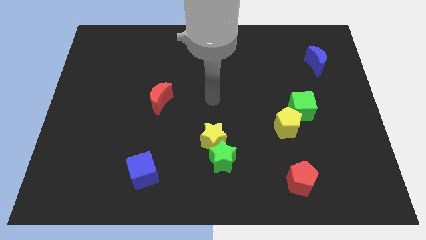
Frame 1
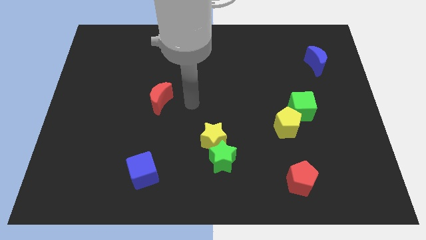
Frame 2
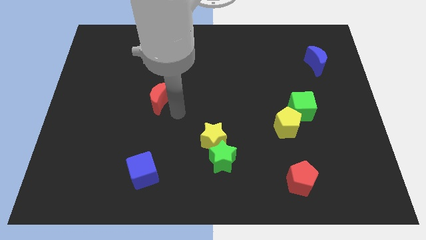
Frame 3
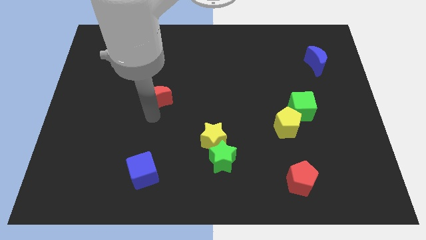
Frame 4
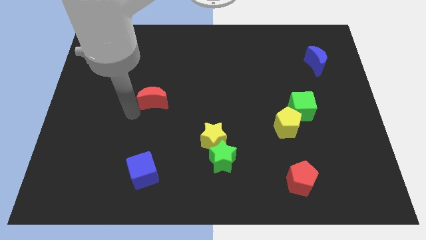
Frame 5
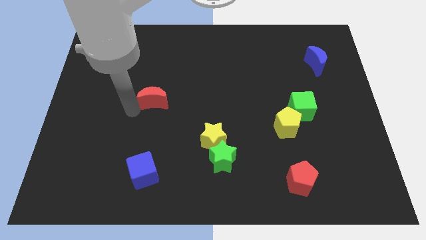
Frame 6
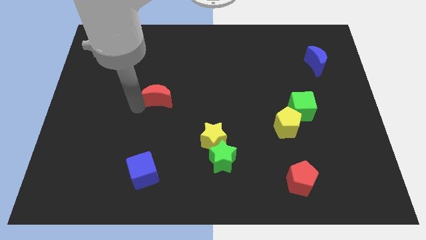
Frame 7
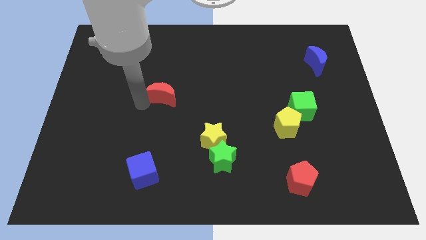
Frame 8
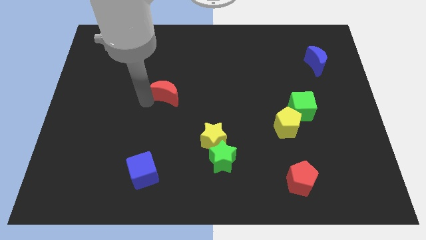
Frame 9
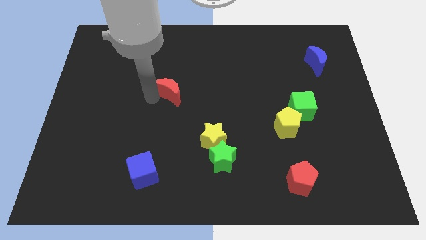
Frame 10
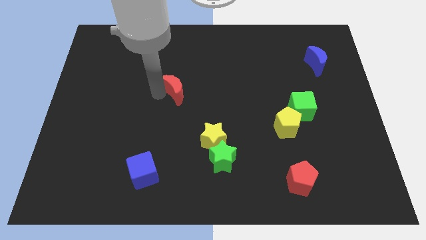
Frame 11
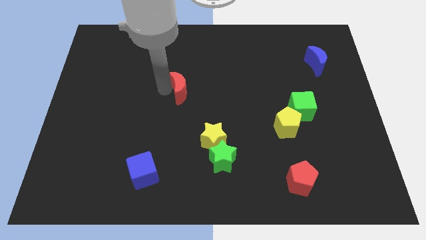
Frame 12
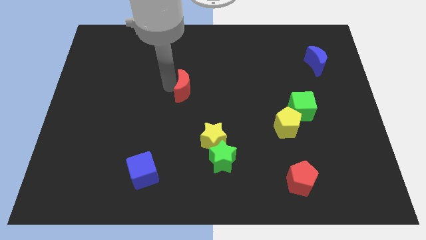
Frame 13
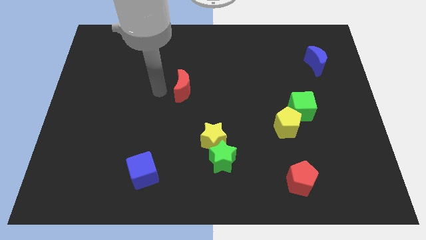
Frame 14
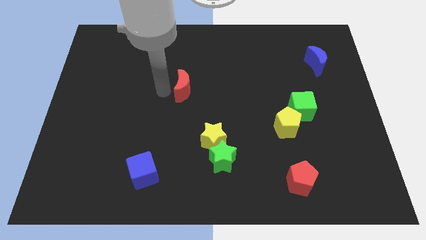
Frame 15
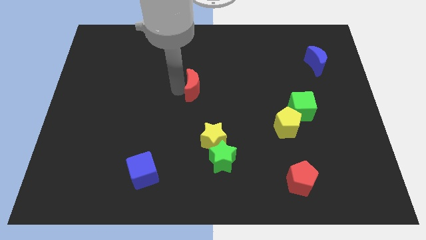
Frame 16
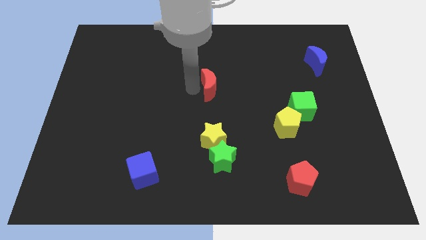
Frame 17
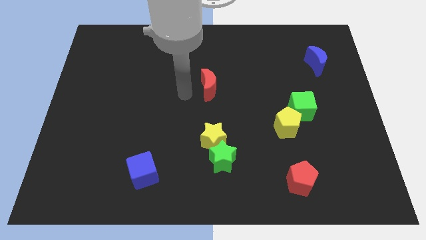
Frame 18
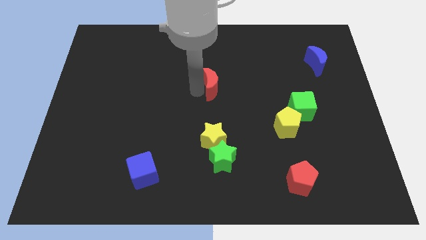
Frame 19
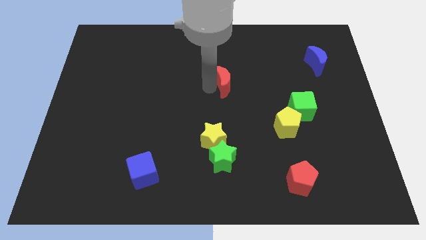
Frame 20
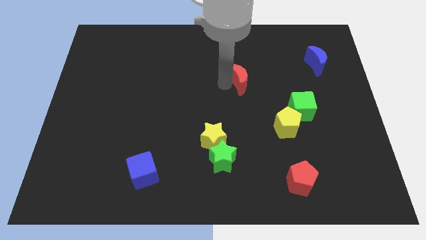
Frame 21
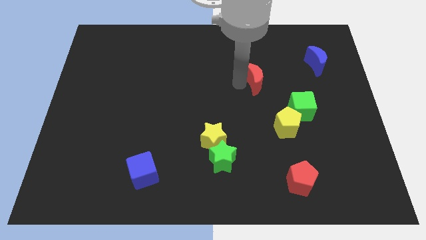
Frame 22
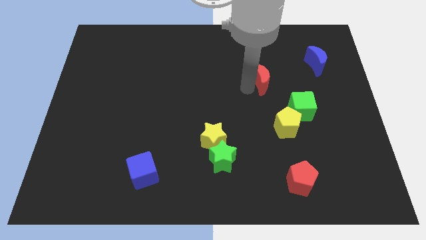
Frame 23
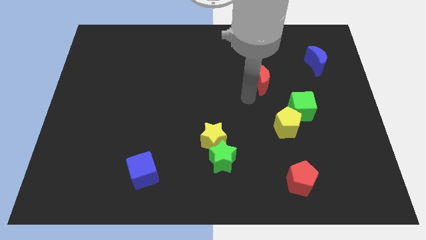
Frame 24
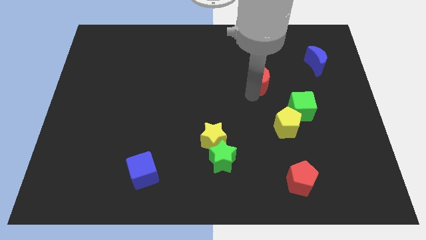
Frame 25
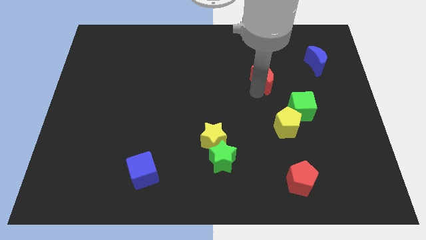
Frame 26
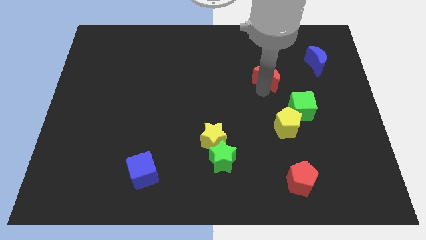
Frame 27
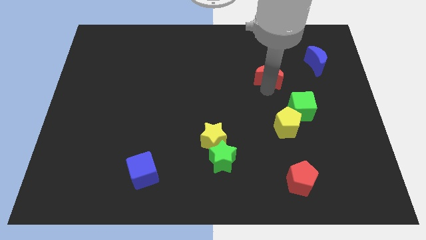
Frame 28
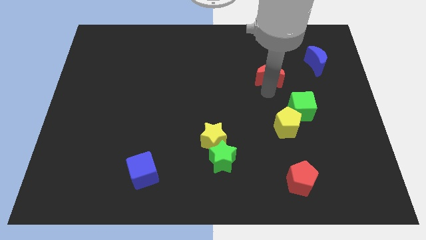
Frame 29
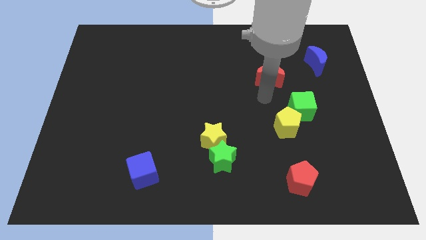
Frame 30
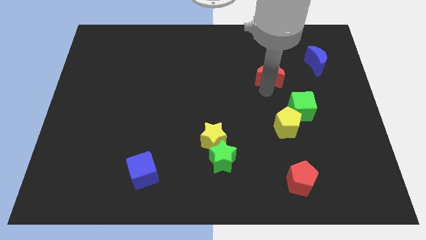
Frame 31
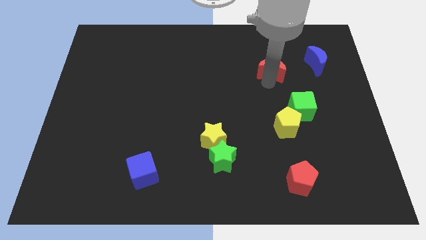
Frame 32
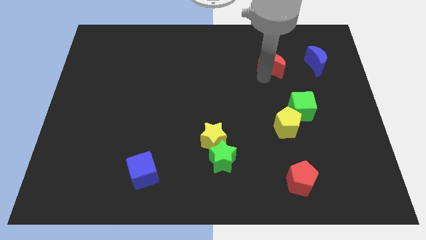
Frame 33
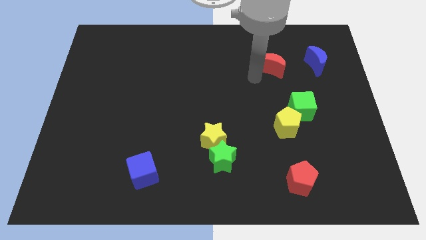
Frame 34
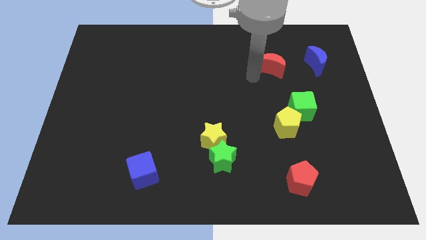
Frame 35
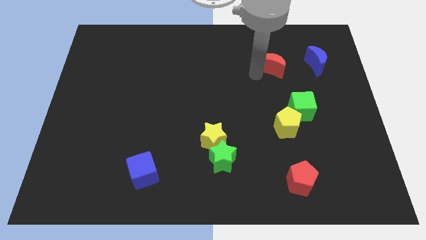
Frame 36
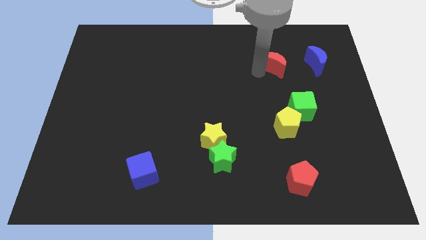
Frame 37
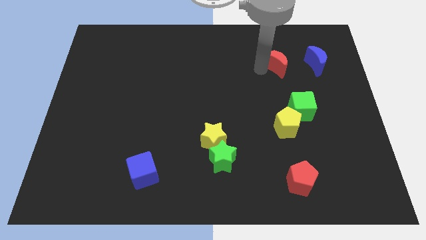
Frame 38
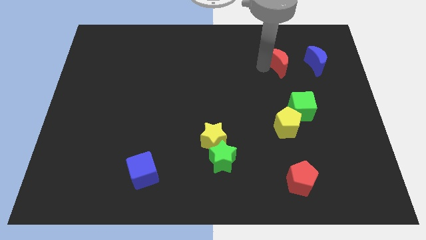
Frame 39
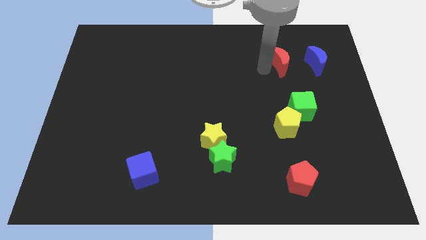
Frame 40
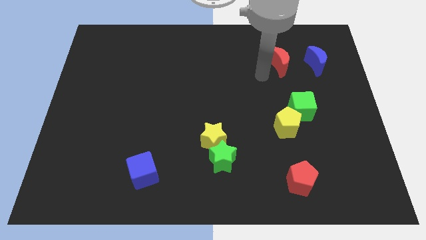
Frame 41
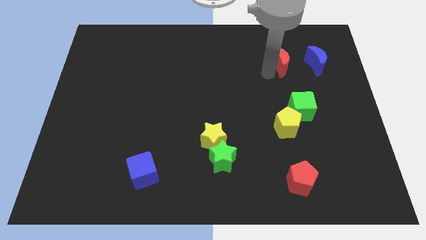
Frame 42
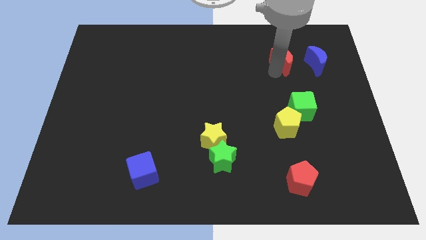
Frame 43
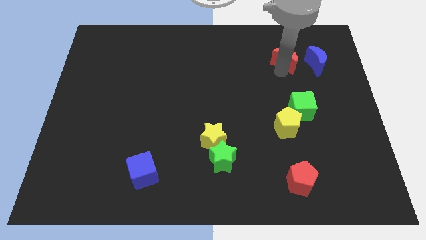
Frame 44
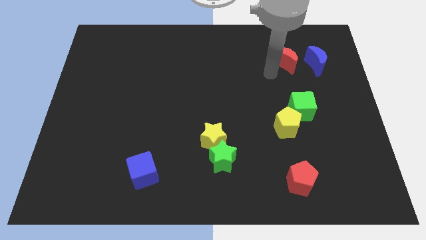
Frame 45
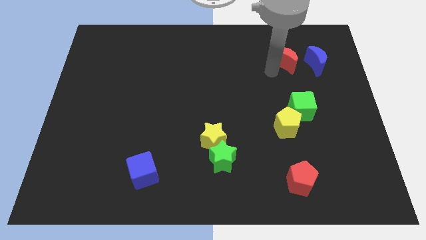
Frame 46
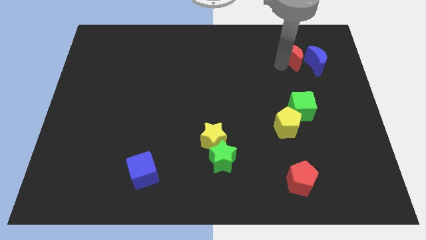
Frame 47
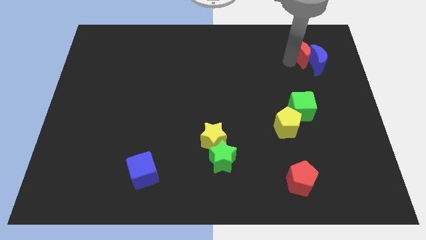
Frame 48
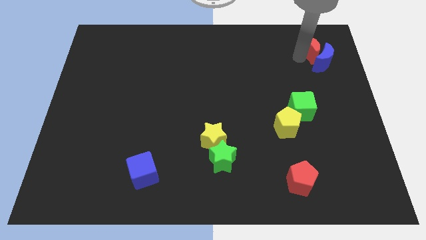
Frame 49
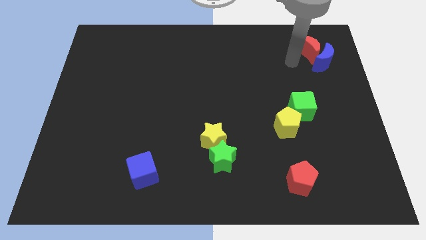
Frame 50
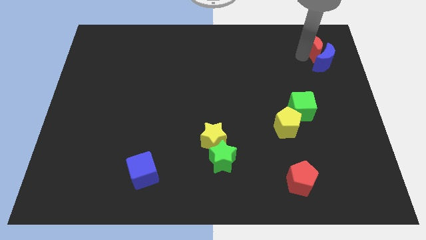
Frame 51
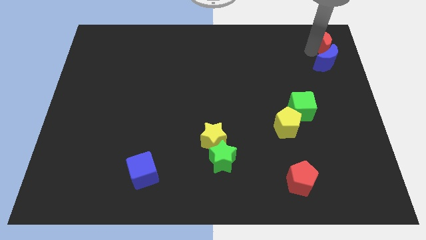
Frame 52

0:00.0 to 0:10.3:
slide the red moon to the top right of the board

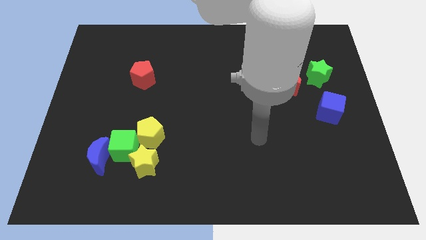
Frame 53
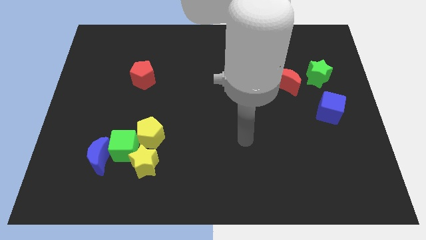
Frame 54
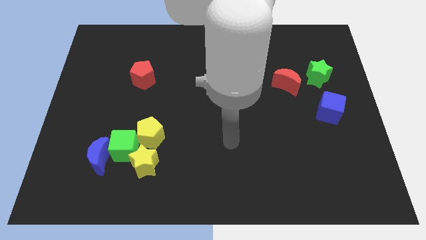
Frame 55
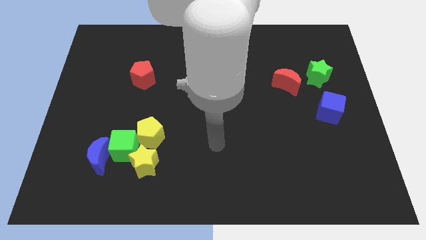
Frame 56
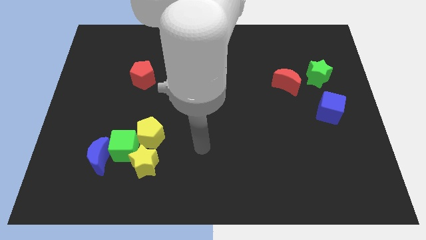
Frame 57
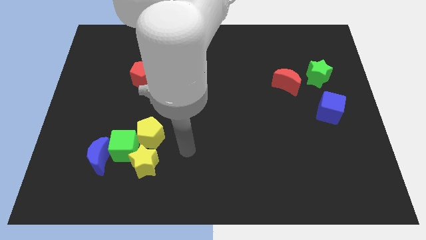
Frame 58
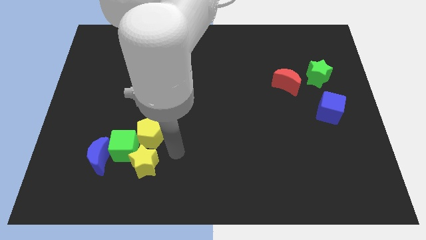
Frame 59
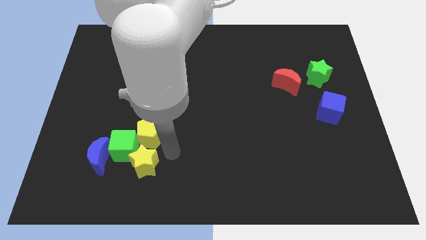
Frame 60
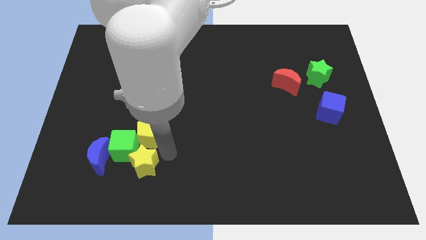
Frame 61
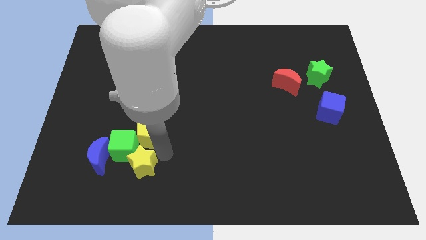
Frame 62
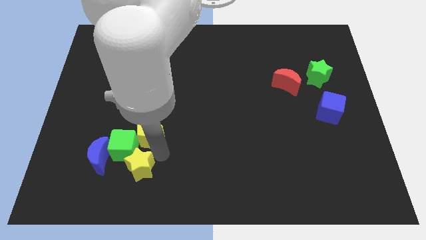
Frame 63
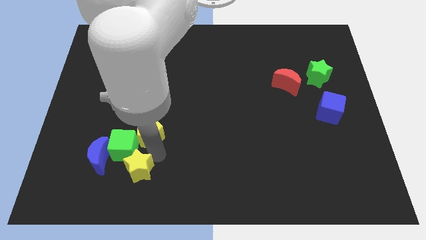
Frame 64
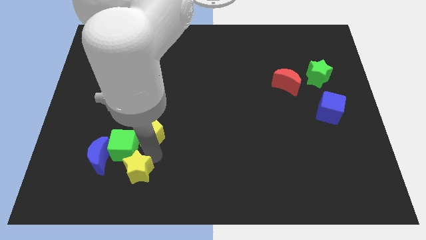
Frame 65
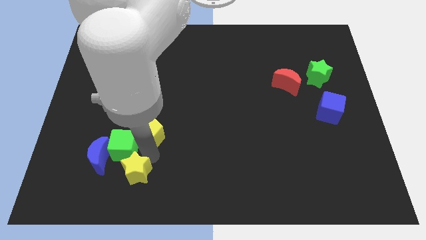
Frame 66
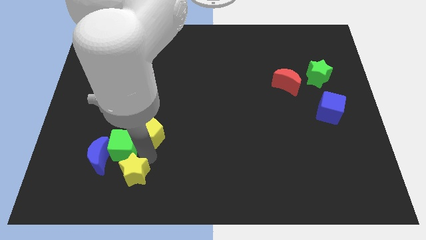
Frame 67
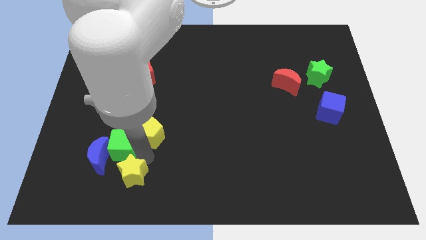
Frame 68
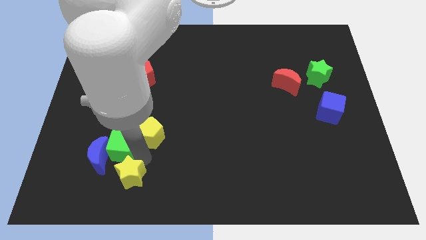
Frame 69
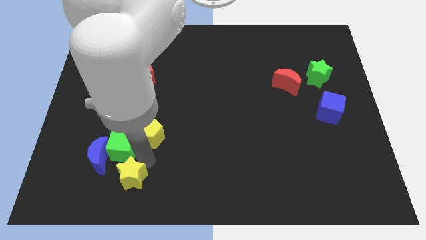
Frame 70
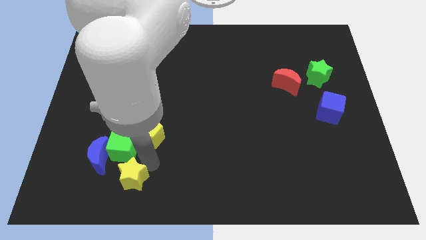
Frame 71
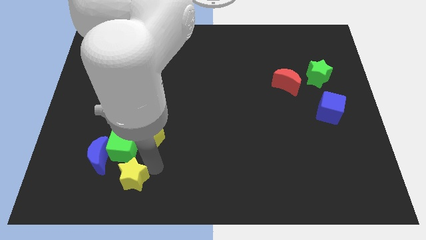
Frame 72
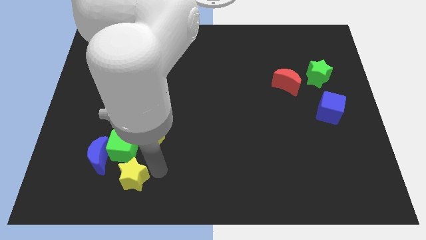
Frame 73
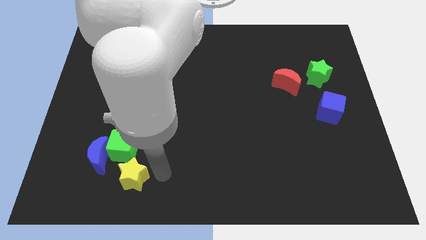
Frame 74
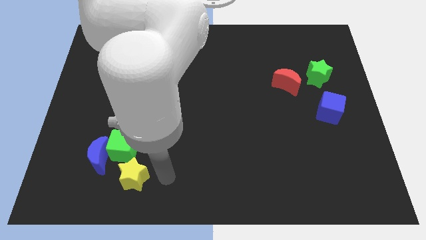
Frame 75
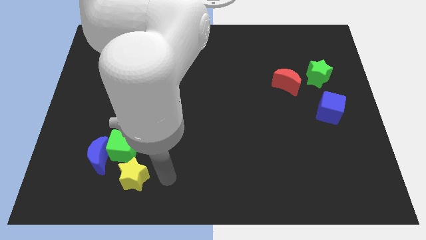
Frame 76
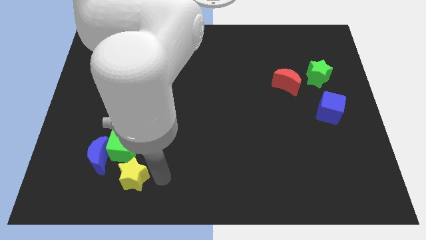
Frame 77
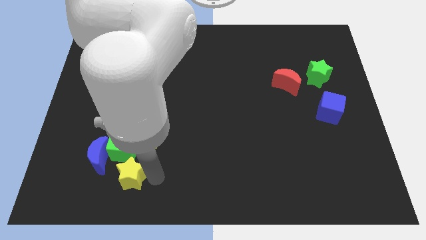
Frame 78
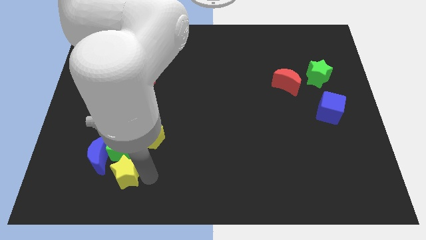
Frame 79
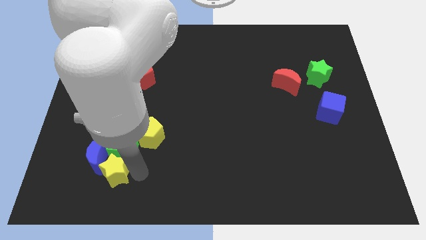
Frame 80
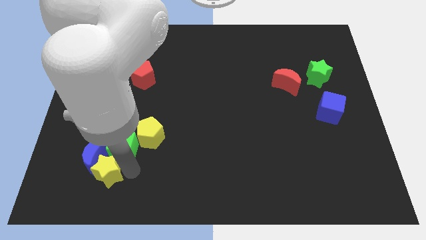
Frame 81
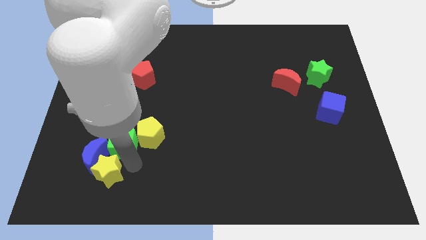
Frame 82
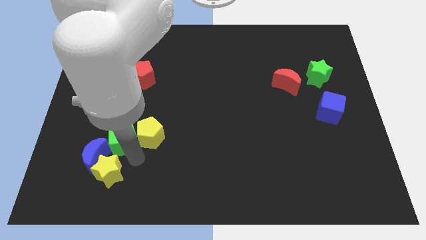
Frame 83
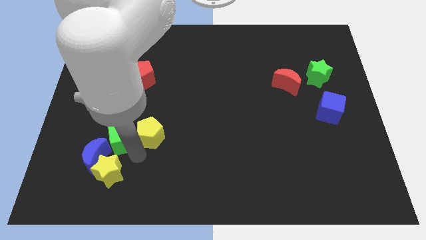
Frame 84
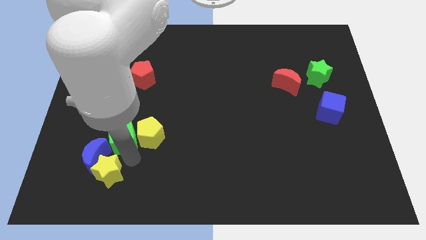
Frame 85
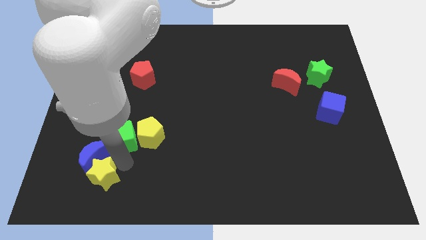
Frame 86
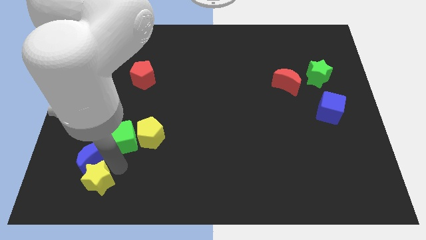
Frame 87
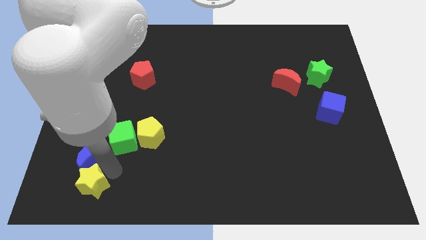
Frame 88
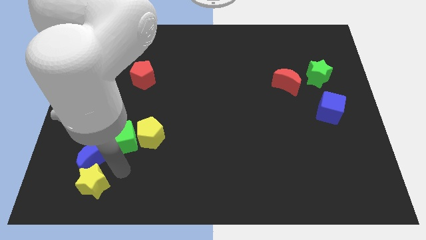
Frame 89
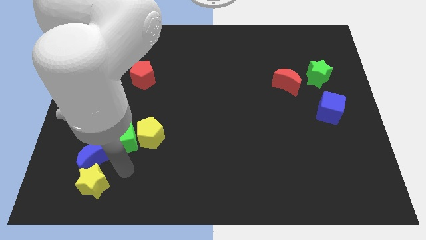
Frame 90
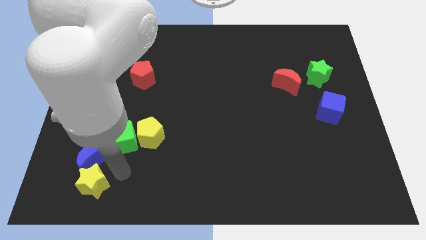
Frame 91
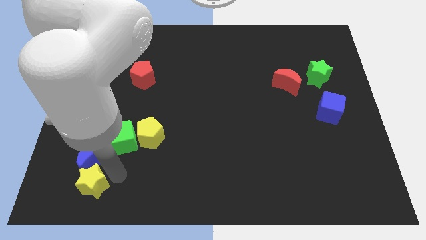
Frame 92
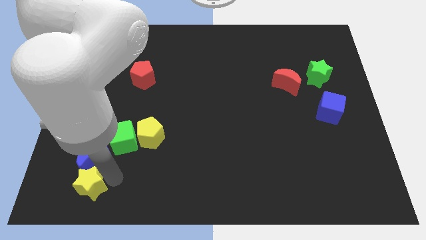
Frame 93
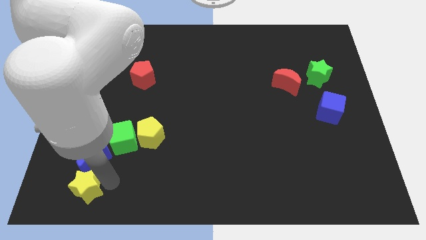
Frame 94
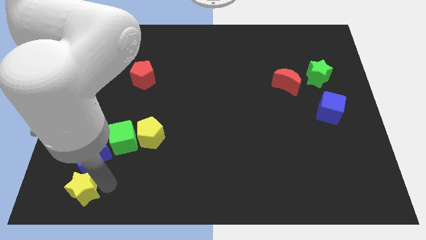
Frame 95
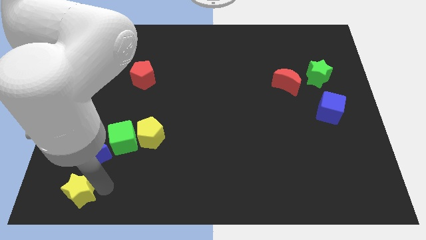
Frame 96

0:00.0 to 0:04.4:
push the yellow star to the bottom left
